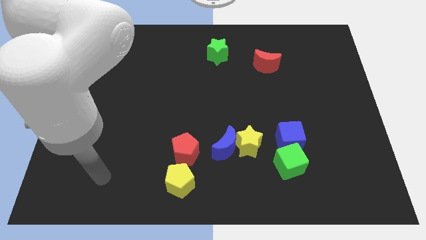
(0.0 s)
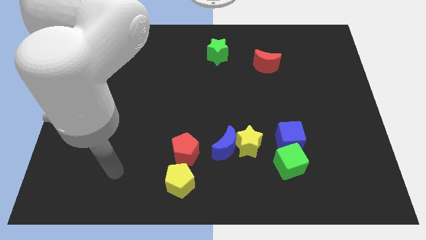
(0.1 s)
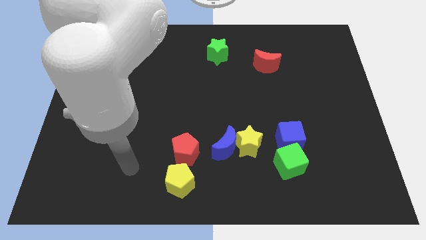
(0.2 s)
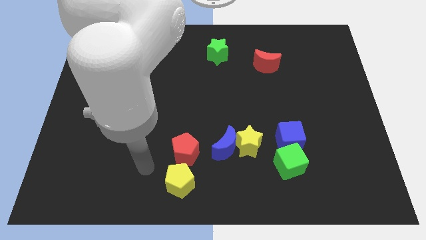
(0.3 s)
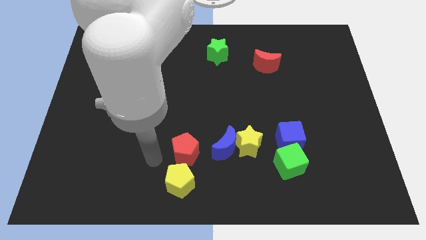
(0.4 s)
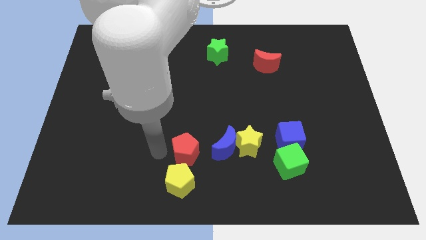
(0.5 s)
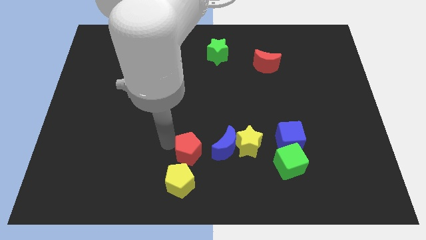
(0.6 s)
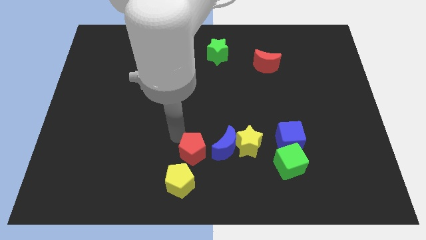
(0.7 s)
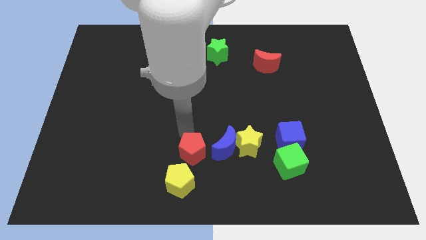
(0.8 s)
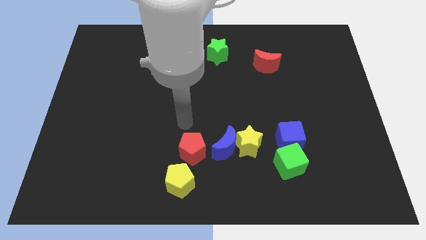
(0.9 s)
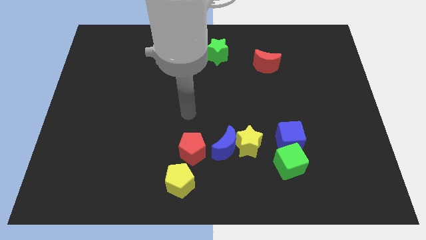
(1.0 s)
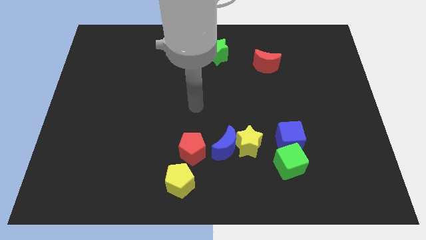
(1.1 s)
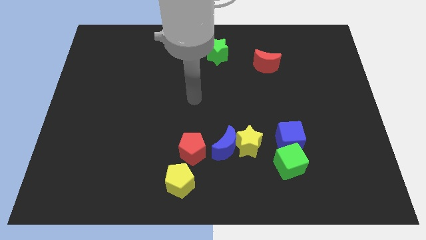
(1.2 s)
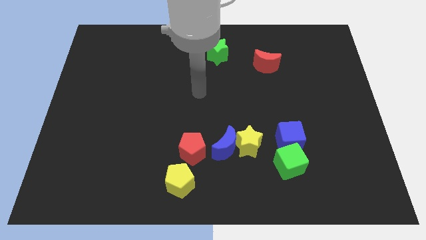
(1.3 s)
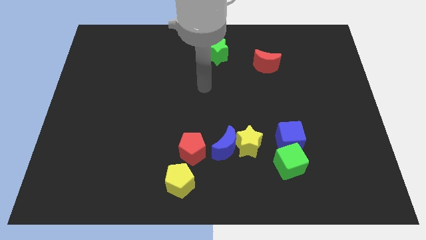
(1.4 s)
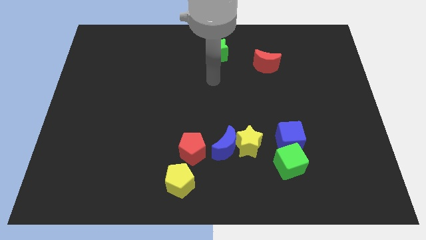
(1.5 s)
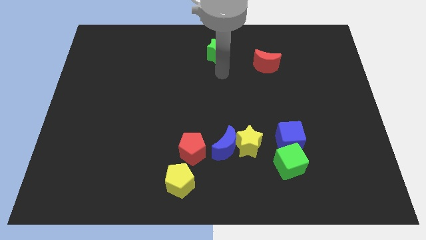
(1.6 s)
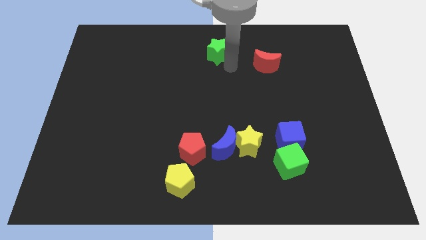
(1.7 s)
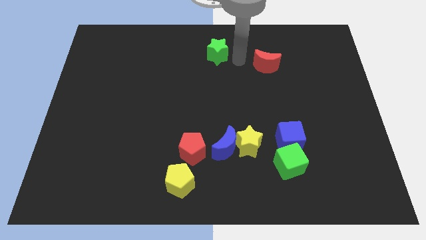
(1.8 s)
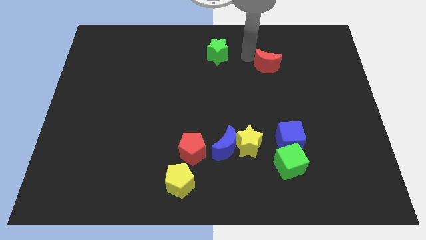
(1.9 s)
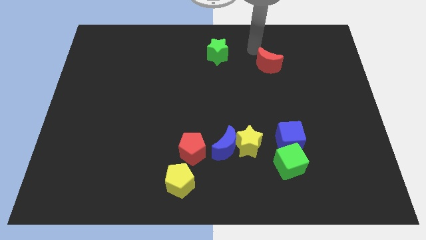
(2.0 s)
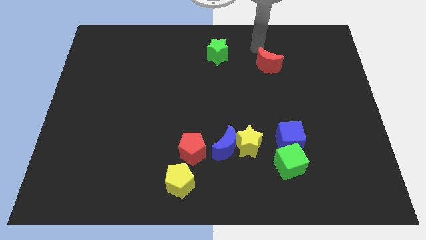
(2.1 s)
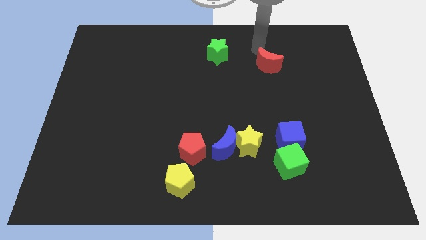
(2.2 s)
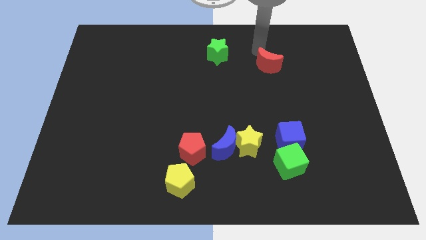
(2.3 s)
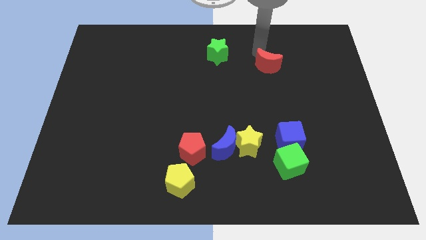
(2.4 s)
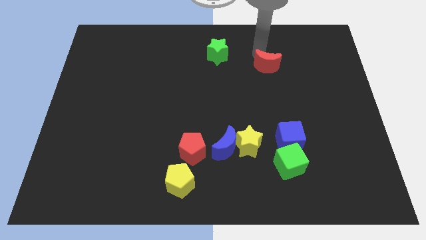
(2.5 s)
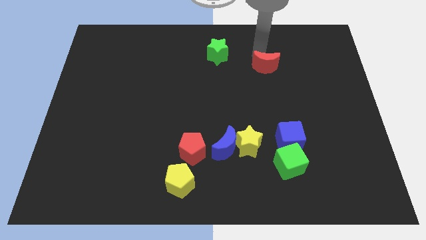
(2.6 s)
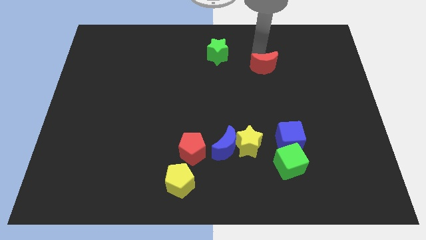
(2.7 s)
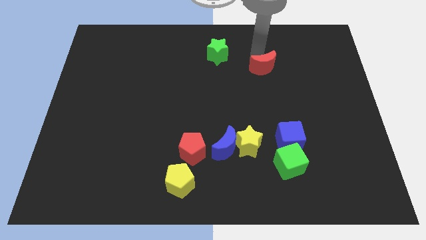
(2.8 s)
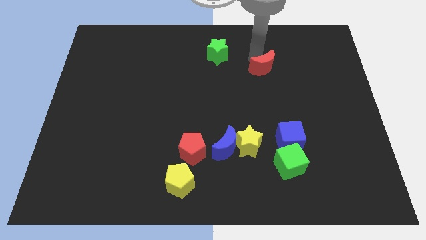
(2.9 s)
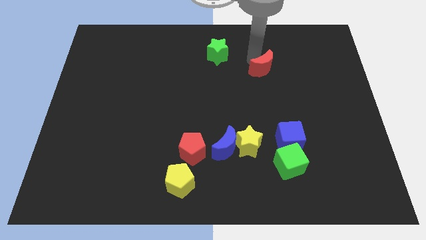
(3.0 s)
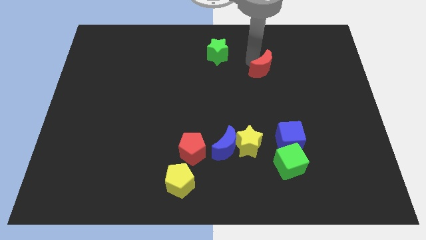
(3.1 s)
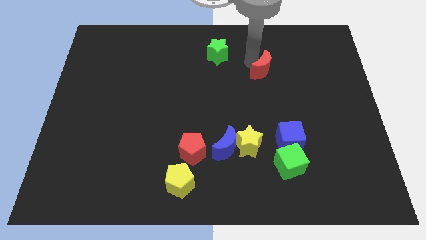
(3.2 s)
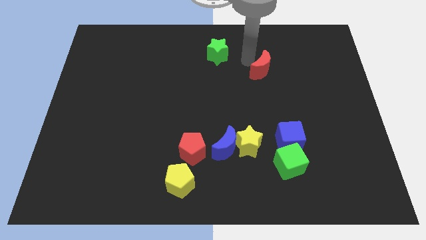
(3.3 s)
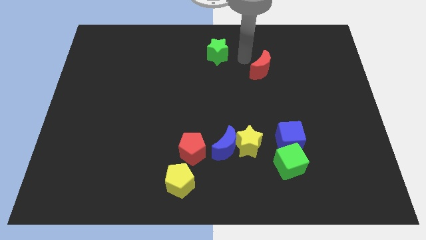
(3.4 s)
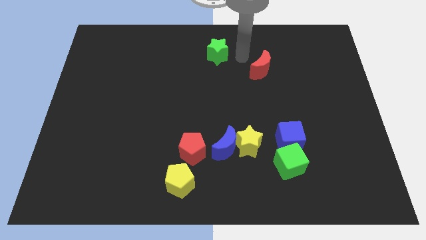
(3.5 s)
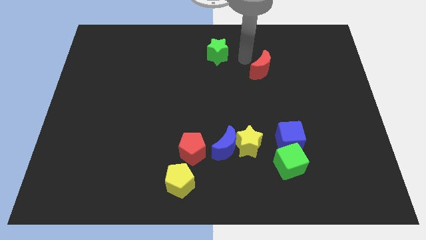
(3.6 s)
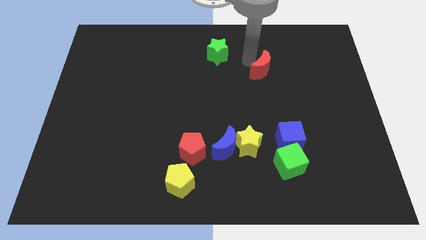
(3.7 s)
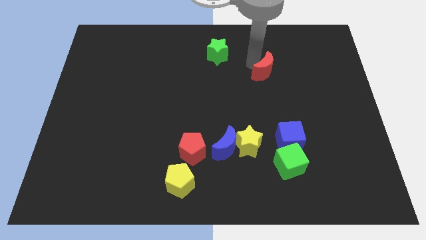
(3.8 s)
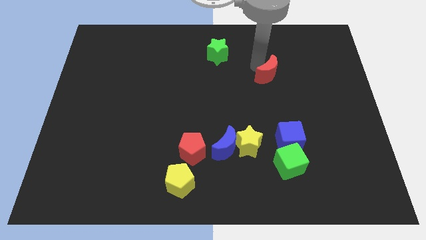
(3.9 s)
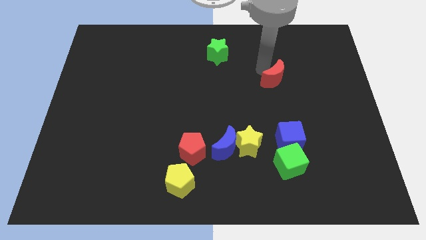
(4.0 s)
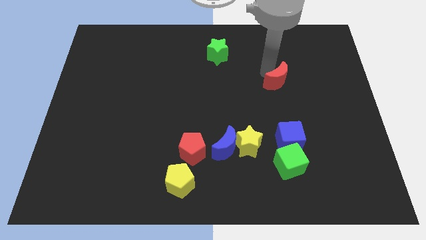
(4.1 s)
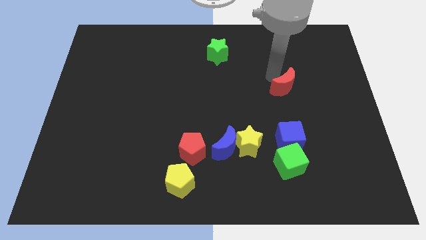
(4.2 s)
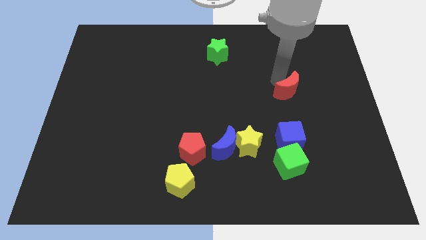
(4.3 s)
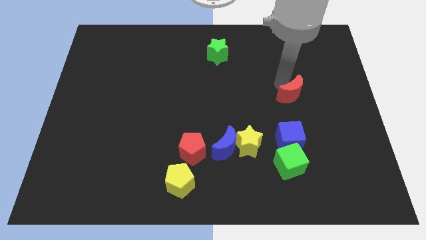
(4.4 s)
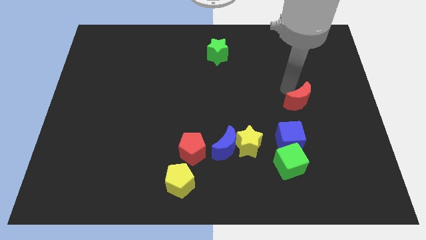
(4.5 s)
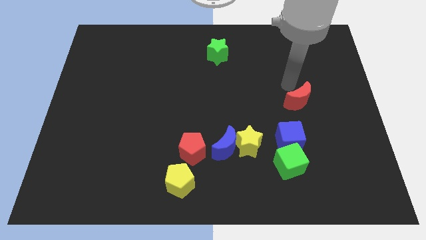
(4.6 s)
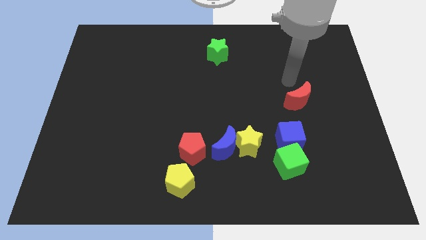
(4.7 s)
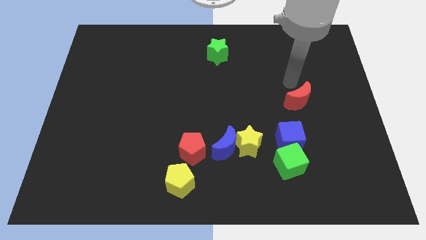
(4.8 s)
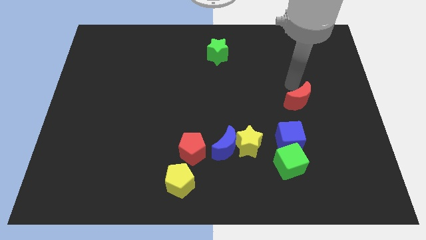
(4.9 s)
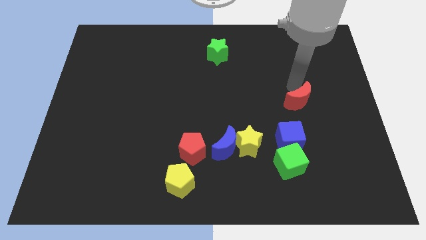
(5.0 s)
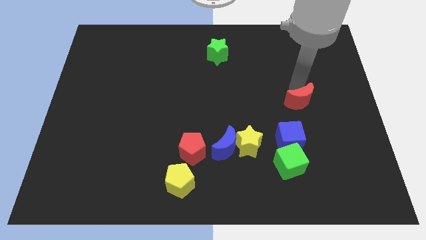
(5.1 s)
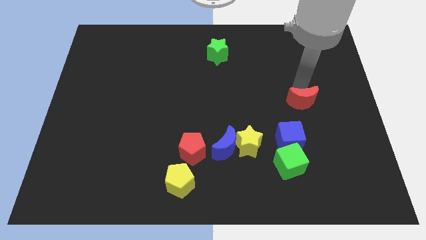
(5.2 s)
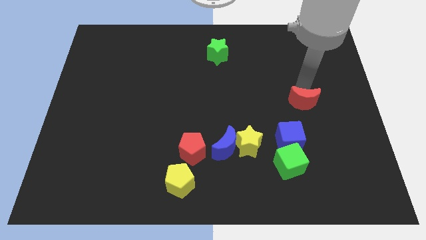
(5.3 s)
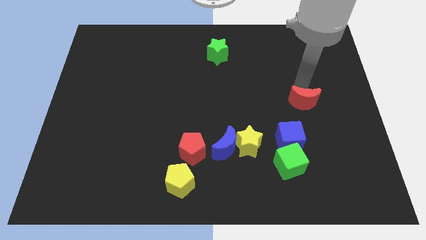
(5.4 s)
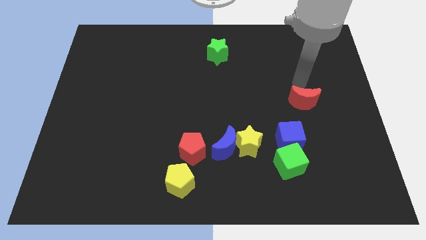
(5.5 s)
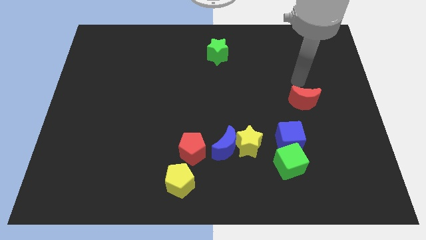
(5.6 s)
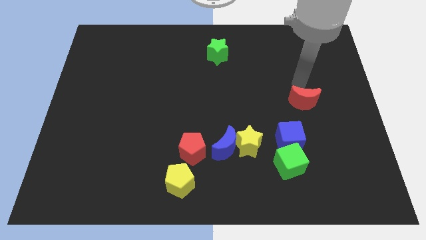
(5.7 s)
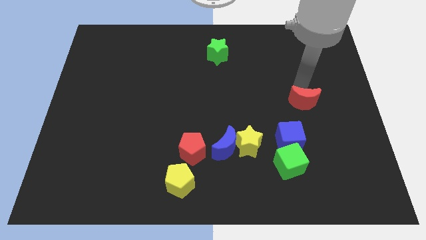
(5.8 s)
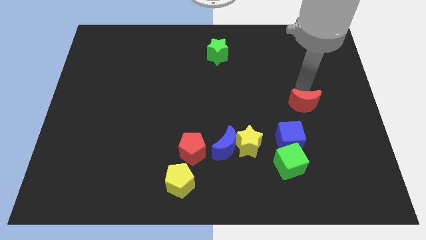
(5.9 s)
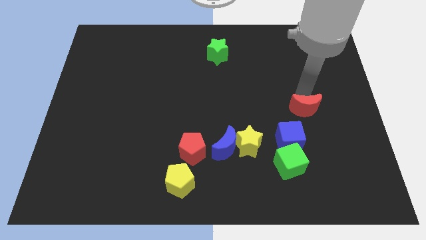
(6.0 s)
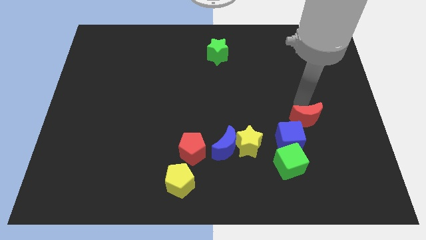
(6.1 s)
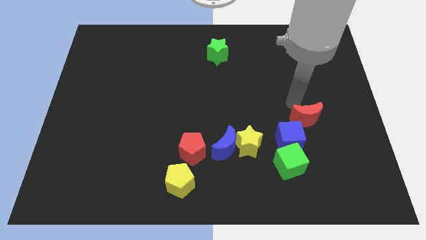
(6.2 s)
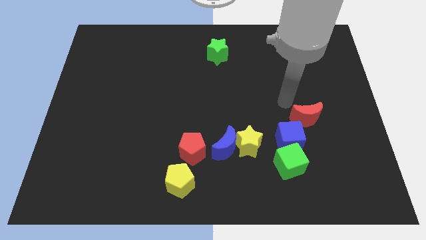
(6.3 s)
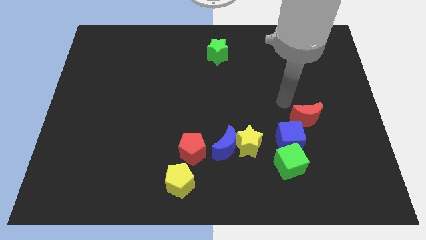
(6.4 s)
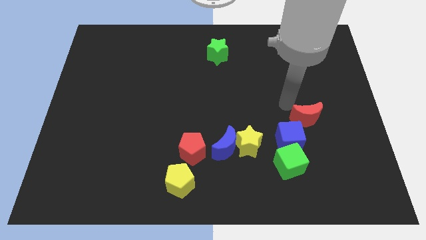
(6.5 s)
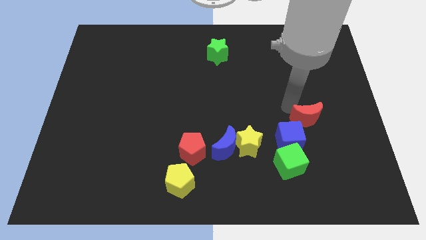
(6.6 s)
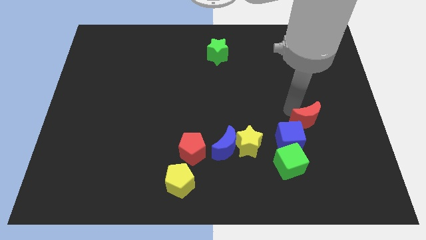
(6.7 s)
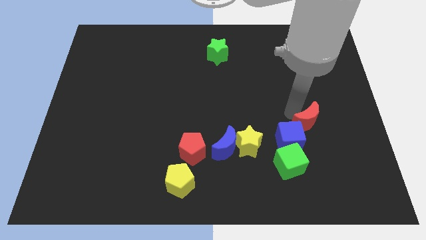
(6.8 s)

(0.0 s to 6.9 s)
push the red moon to the right of the blue cube

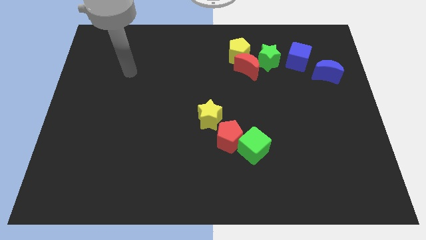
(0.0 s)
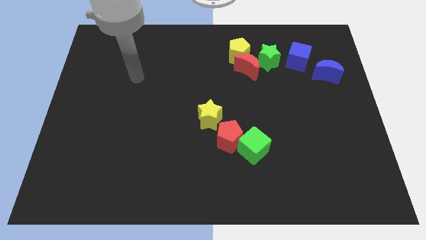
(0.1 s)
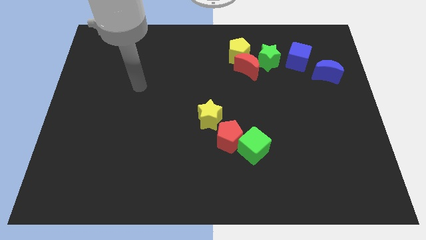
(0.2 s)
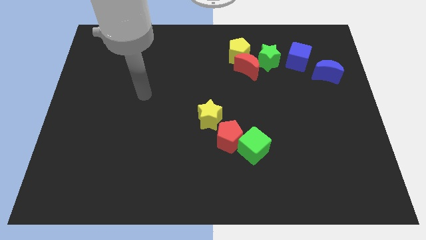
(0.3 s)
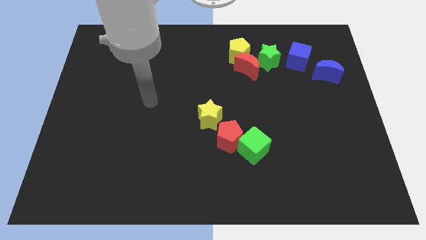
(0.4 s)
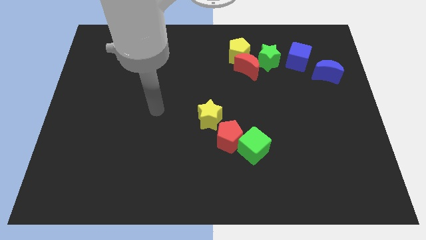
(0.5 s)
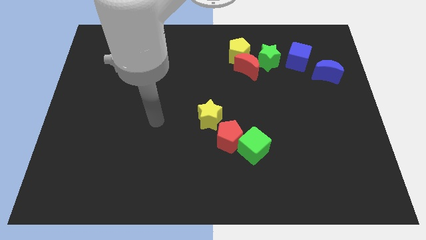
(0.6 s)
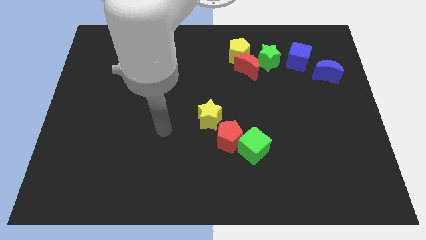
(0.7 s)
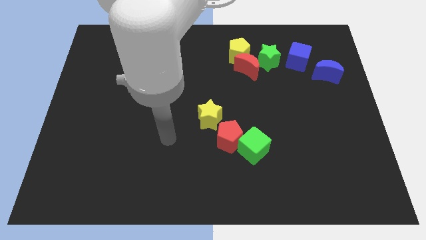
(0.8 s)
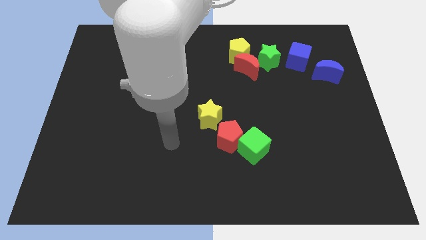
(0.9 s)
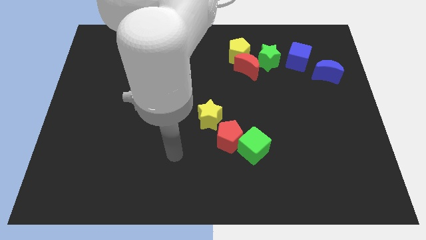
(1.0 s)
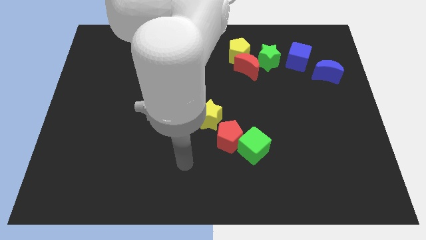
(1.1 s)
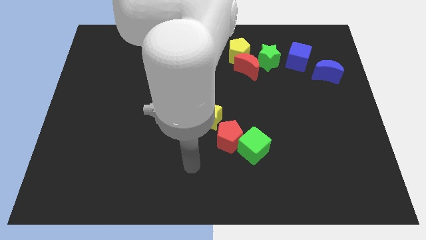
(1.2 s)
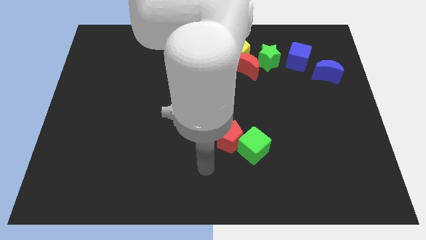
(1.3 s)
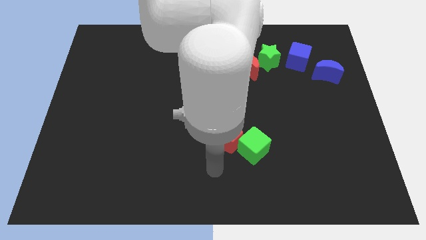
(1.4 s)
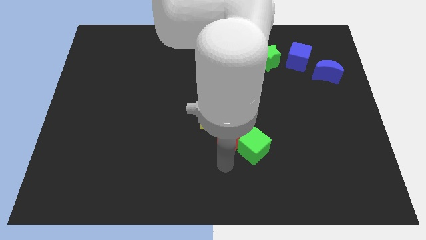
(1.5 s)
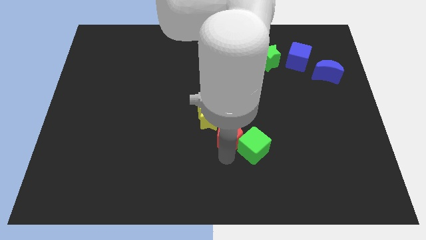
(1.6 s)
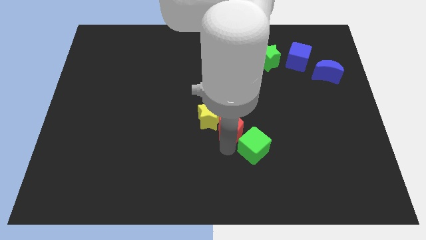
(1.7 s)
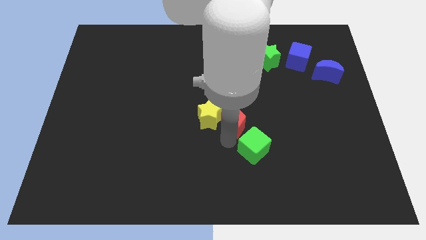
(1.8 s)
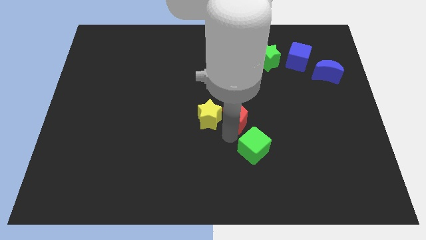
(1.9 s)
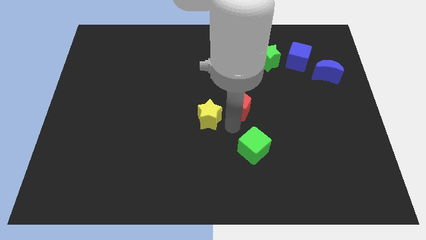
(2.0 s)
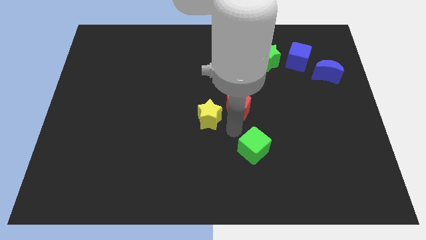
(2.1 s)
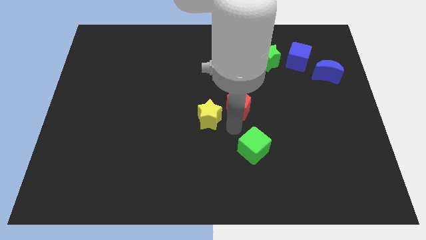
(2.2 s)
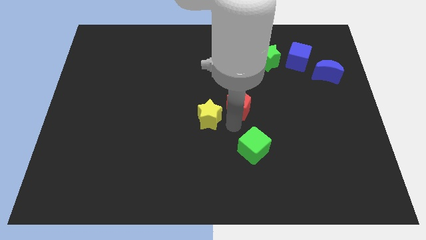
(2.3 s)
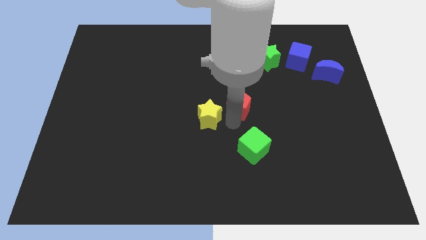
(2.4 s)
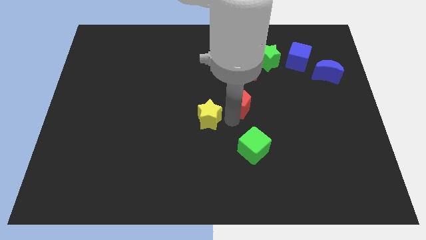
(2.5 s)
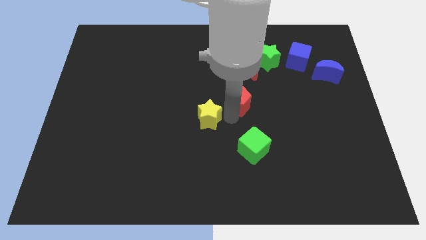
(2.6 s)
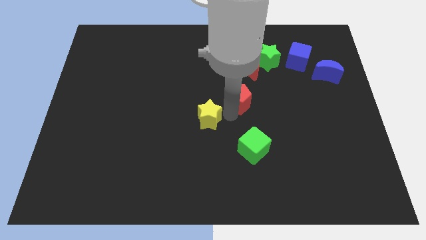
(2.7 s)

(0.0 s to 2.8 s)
move the red pentagon below the yellow pentagon
